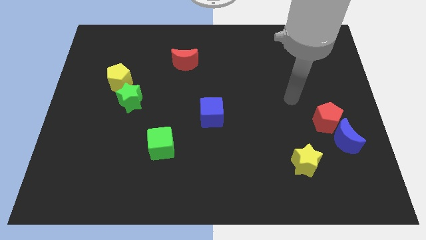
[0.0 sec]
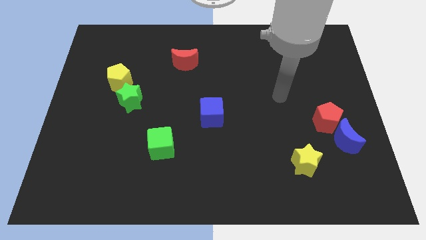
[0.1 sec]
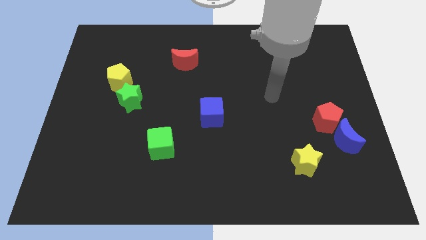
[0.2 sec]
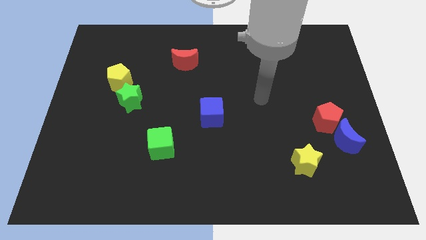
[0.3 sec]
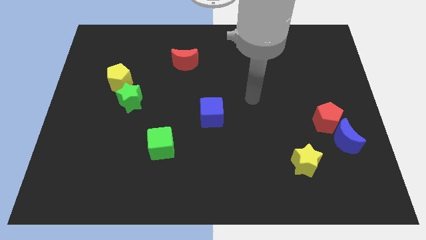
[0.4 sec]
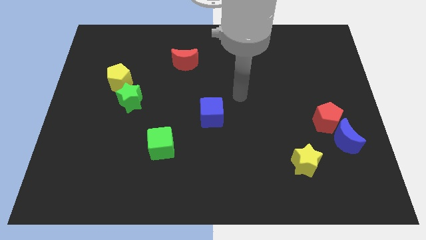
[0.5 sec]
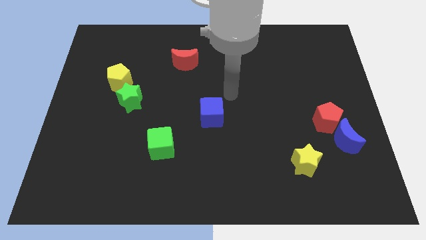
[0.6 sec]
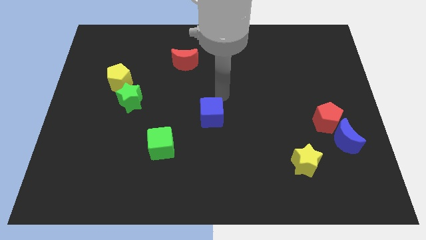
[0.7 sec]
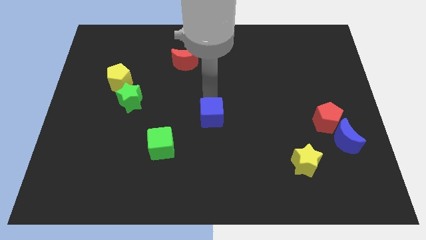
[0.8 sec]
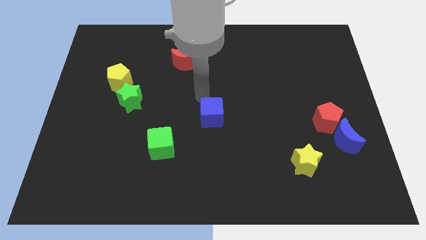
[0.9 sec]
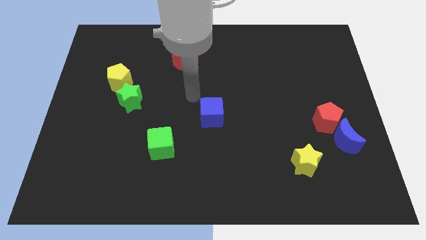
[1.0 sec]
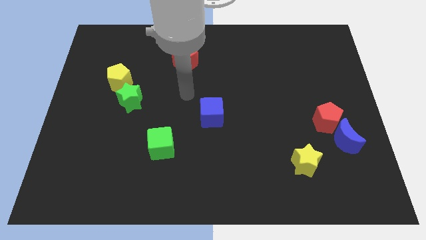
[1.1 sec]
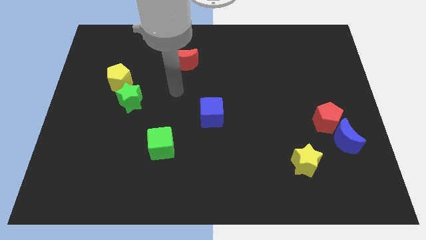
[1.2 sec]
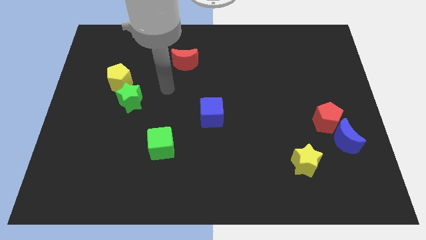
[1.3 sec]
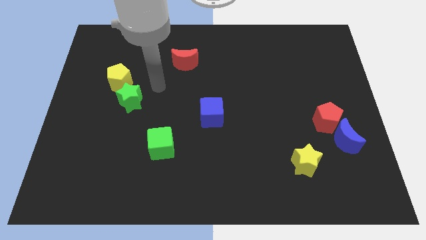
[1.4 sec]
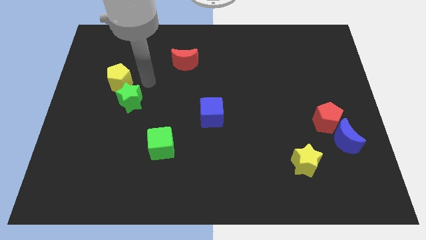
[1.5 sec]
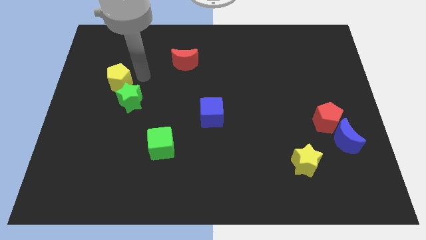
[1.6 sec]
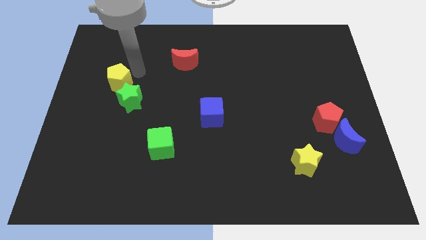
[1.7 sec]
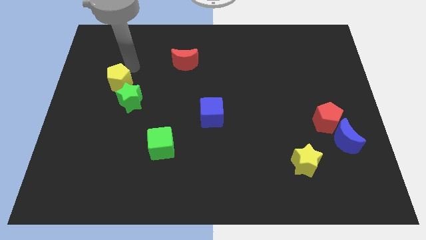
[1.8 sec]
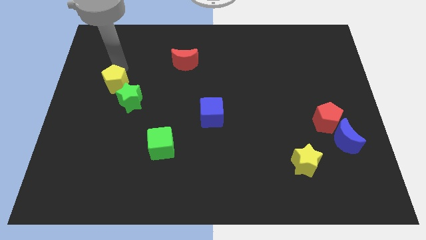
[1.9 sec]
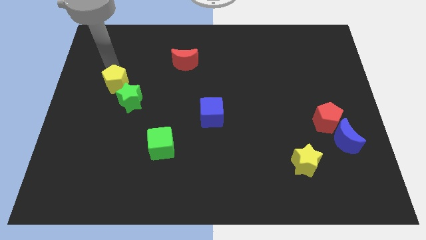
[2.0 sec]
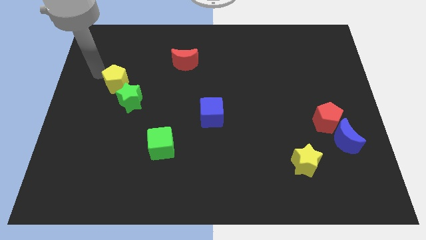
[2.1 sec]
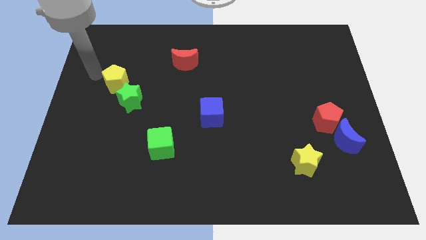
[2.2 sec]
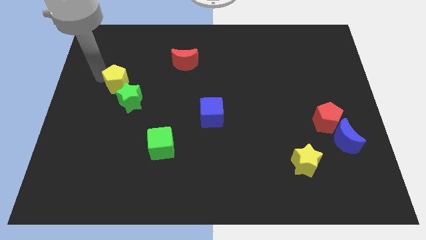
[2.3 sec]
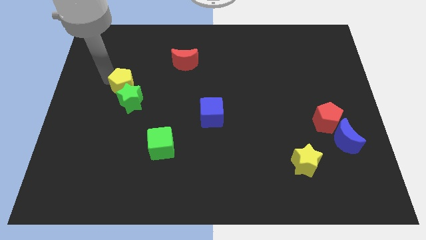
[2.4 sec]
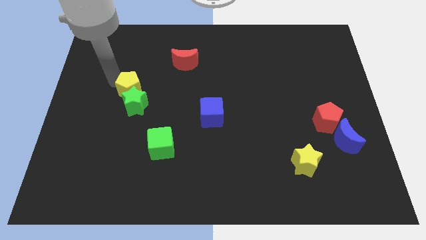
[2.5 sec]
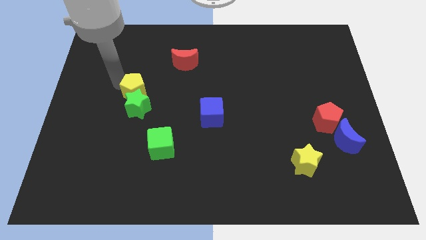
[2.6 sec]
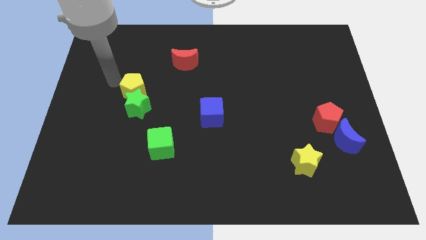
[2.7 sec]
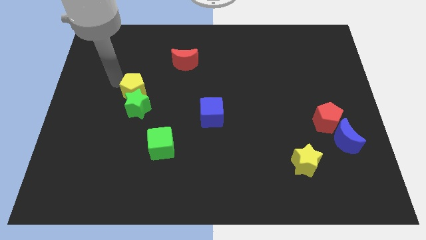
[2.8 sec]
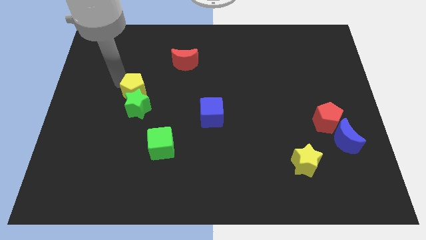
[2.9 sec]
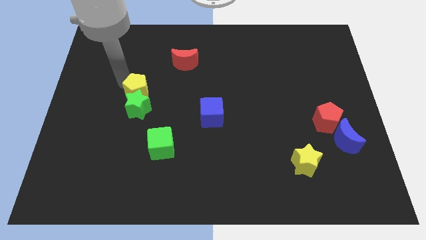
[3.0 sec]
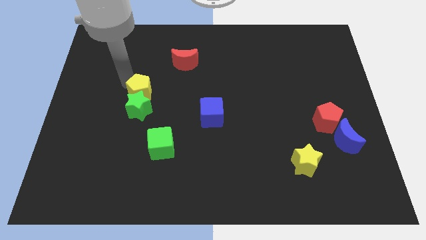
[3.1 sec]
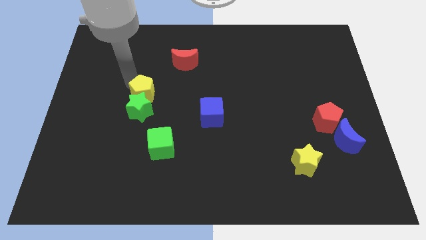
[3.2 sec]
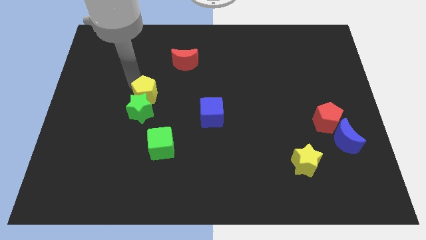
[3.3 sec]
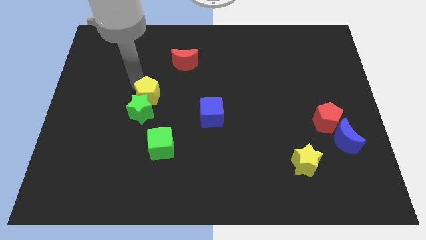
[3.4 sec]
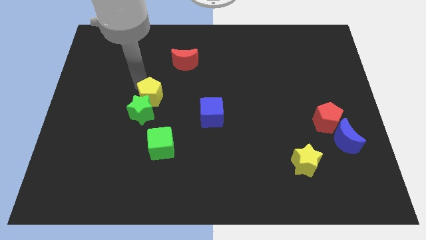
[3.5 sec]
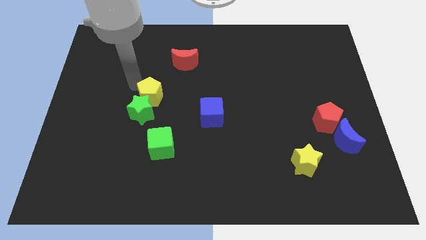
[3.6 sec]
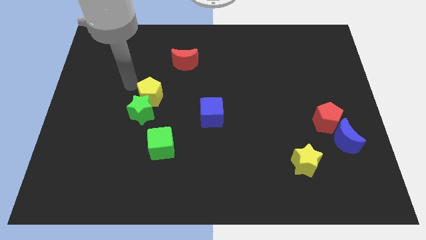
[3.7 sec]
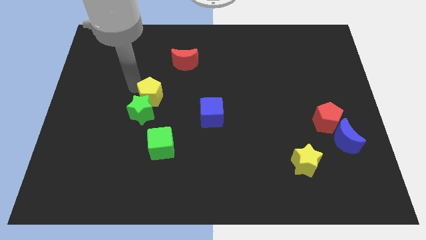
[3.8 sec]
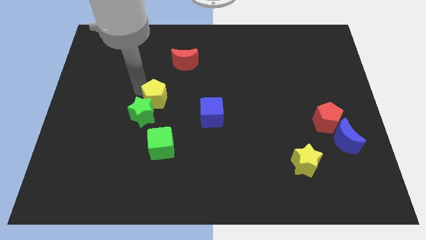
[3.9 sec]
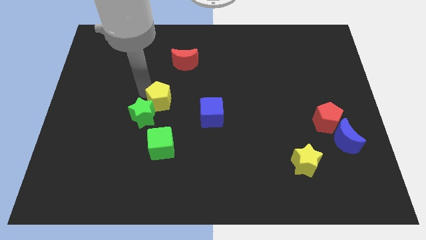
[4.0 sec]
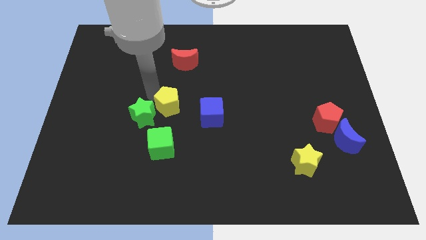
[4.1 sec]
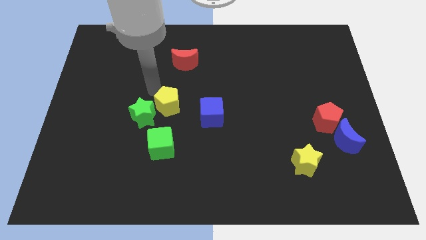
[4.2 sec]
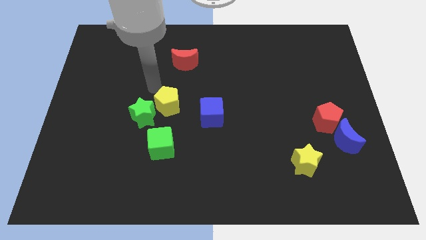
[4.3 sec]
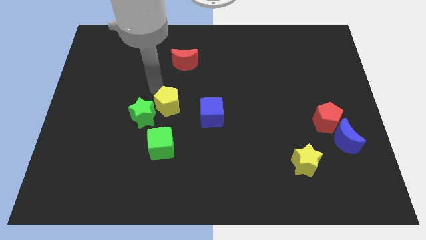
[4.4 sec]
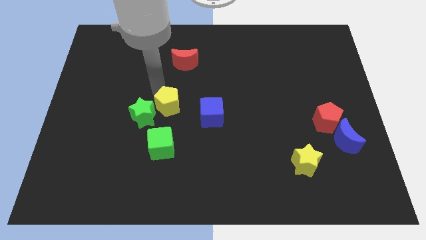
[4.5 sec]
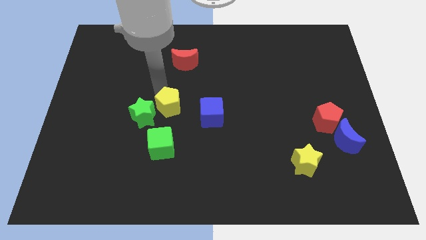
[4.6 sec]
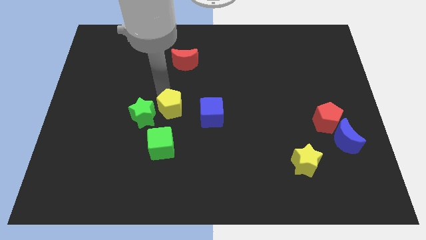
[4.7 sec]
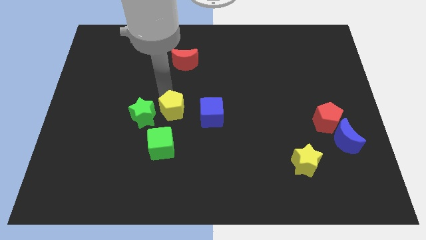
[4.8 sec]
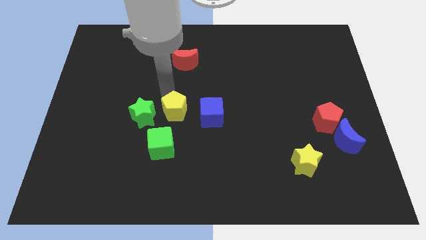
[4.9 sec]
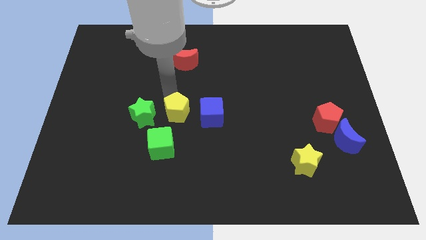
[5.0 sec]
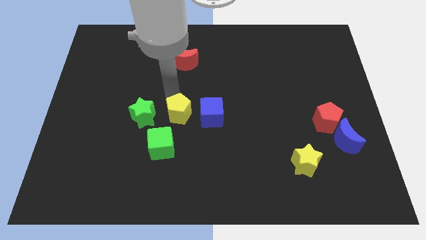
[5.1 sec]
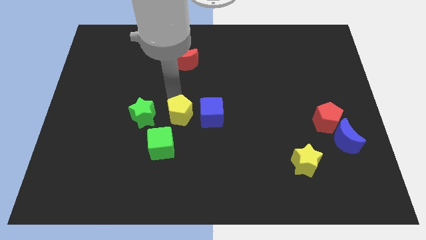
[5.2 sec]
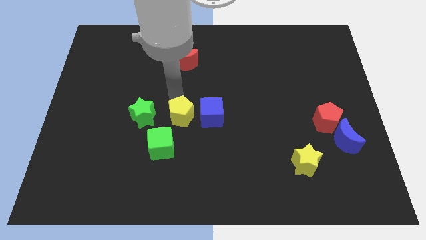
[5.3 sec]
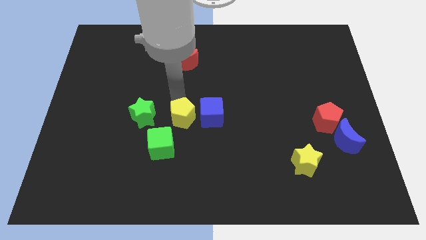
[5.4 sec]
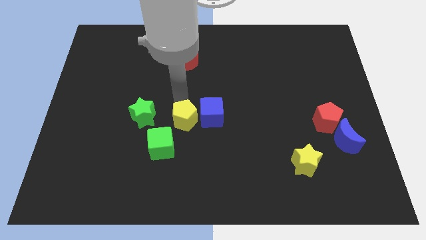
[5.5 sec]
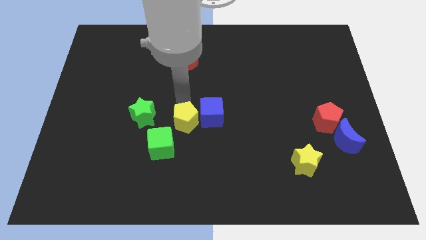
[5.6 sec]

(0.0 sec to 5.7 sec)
move the yellow pentagon downwards and to the right

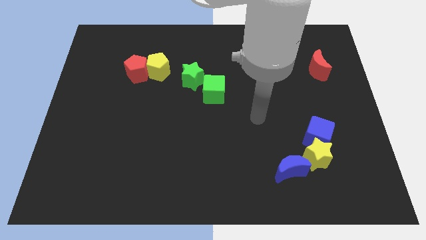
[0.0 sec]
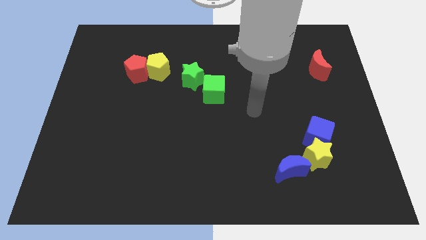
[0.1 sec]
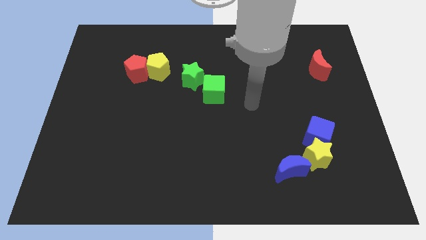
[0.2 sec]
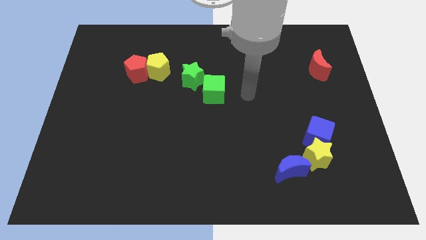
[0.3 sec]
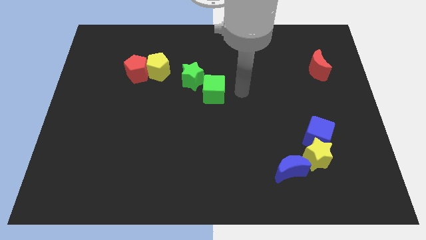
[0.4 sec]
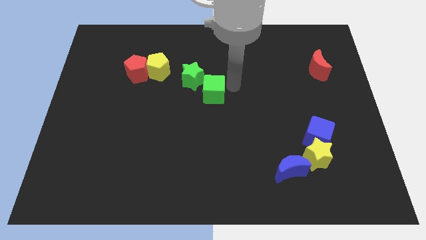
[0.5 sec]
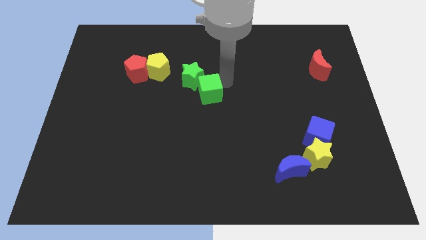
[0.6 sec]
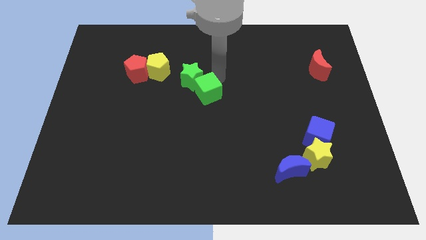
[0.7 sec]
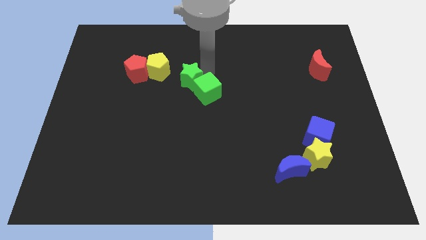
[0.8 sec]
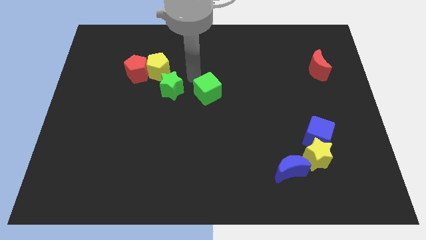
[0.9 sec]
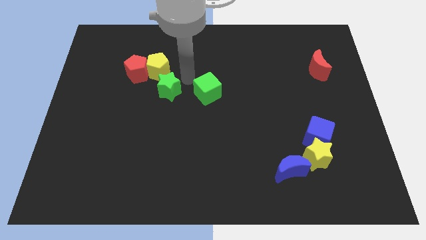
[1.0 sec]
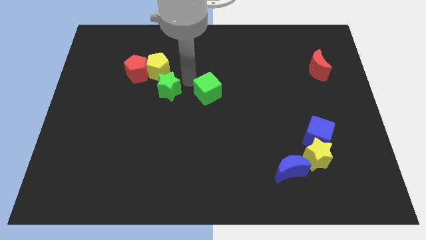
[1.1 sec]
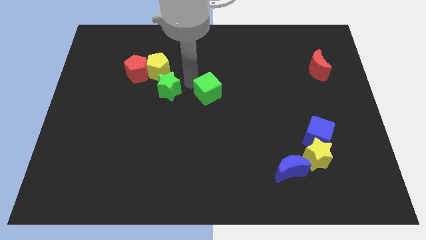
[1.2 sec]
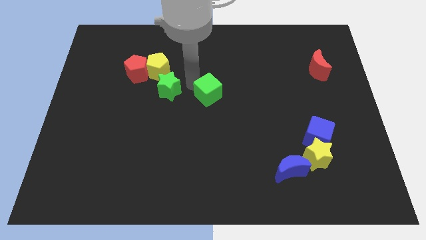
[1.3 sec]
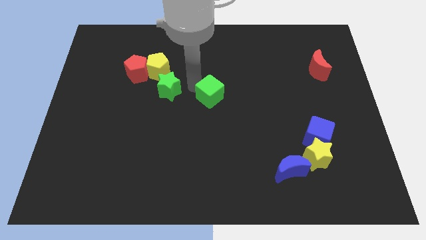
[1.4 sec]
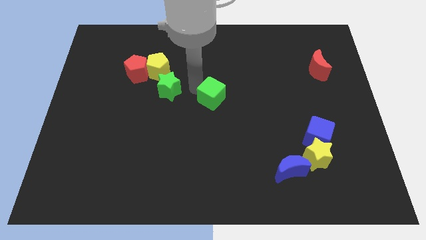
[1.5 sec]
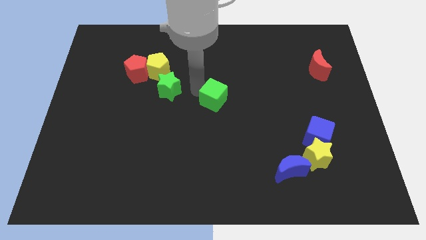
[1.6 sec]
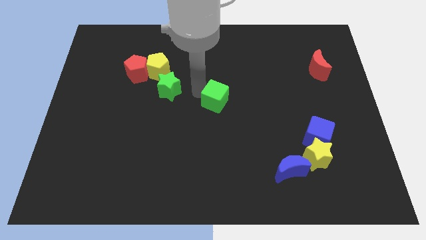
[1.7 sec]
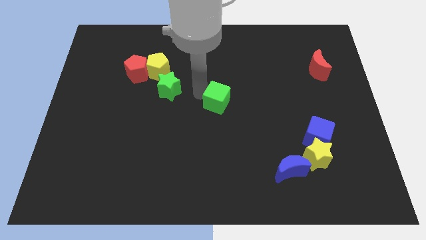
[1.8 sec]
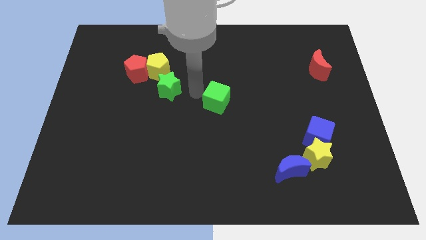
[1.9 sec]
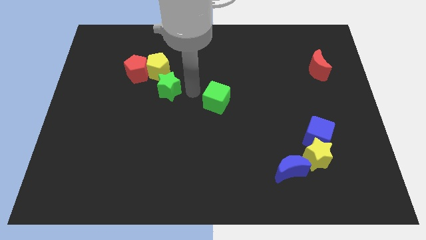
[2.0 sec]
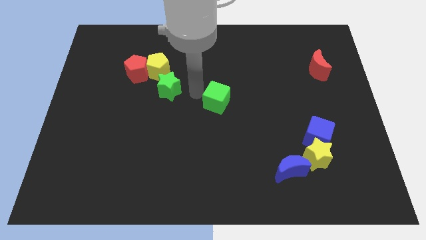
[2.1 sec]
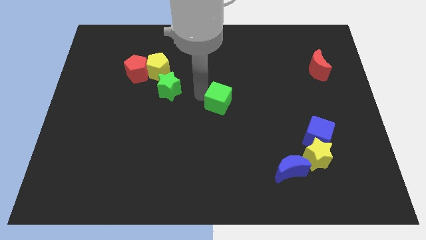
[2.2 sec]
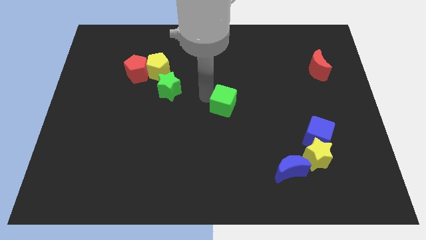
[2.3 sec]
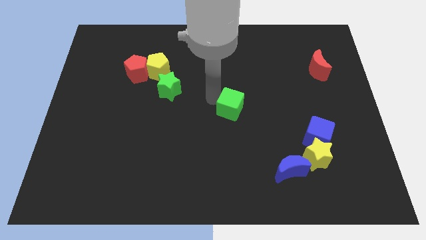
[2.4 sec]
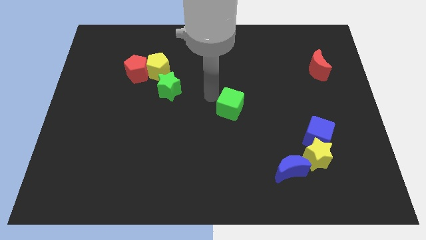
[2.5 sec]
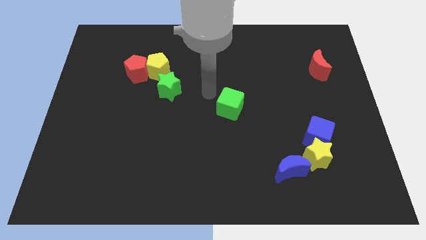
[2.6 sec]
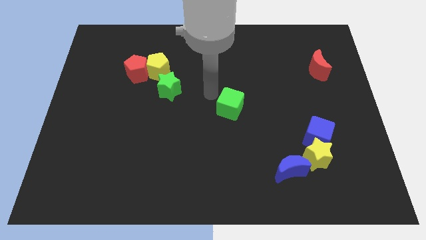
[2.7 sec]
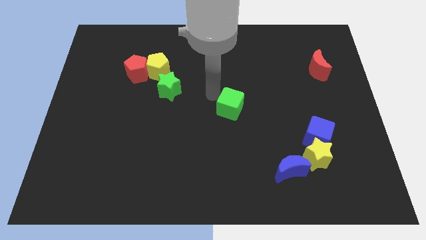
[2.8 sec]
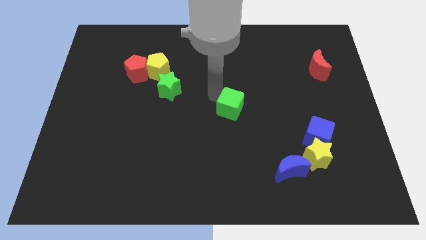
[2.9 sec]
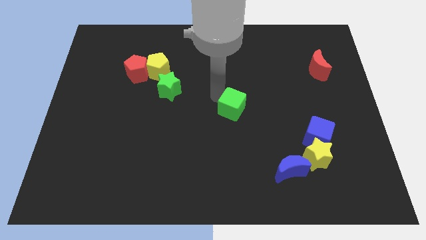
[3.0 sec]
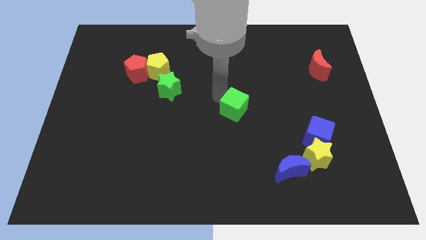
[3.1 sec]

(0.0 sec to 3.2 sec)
slide the green cube a little bit down and then to the right
